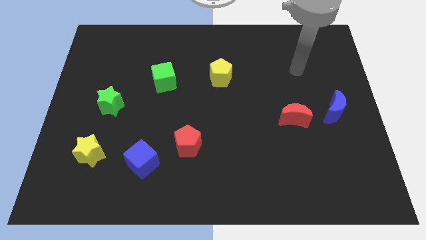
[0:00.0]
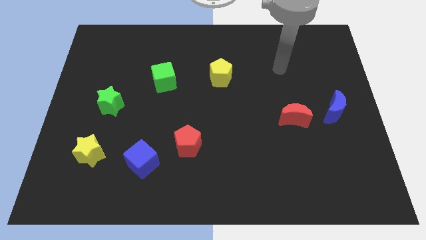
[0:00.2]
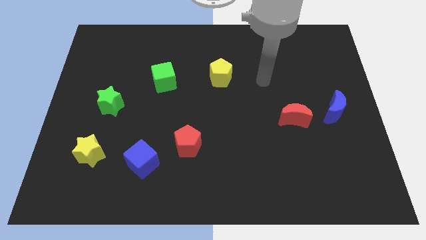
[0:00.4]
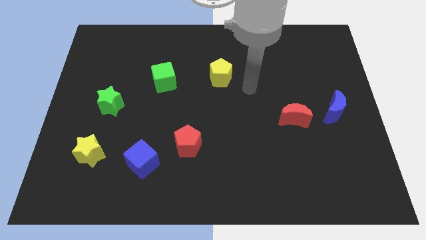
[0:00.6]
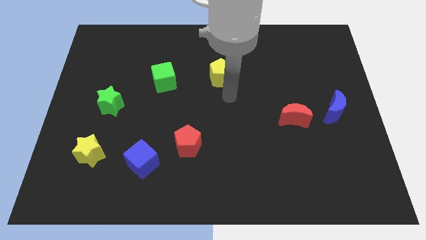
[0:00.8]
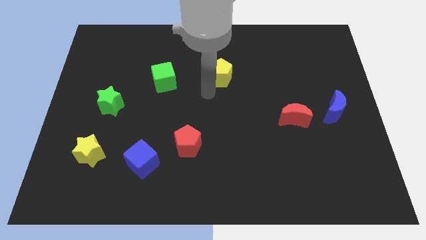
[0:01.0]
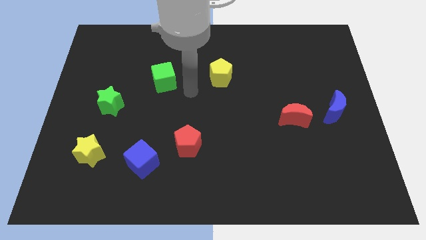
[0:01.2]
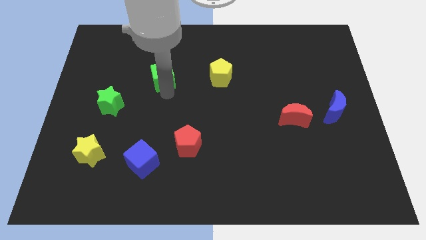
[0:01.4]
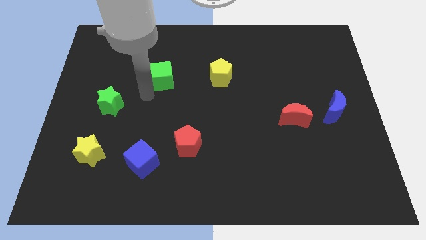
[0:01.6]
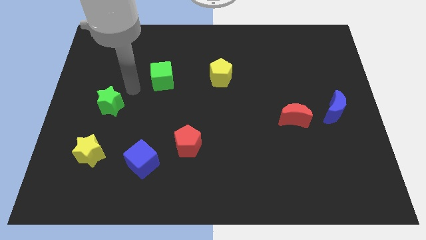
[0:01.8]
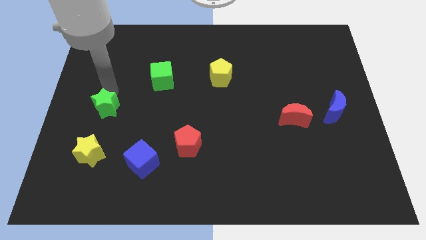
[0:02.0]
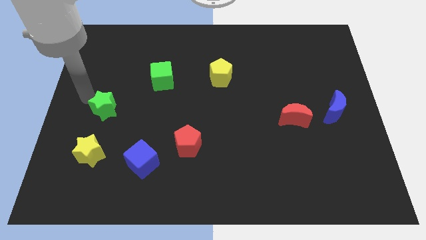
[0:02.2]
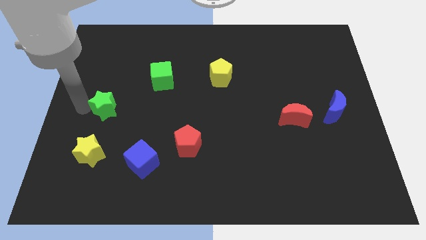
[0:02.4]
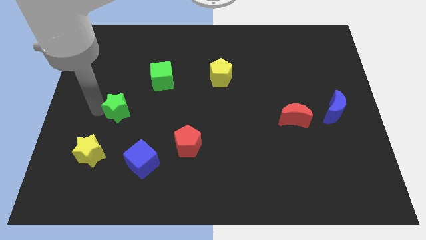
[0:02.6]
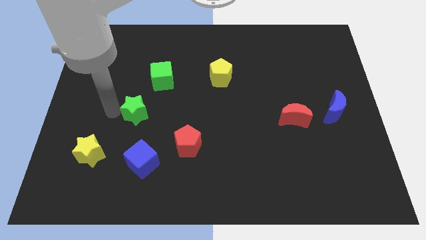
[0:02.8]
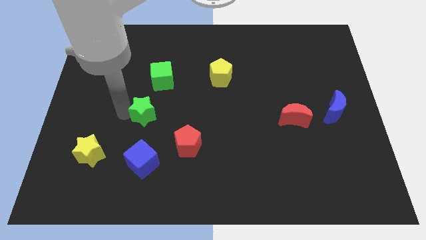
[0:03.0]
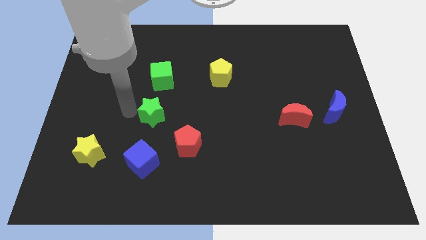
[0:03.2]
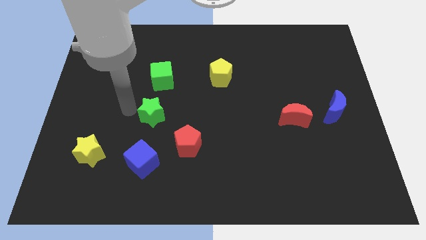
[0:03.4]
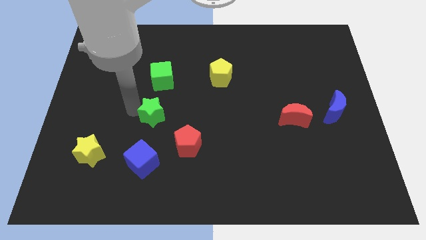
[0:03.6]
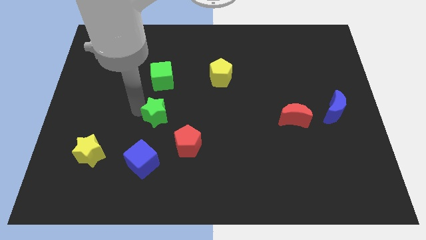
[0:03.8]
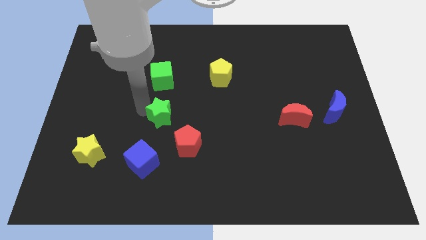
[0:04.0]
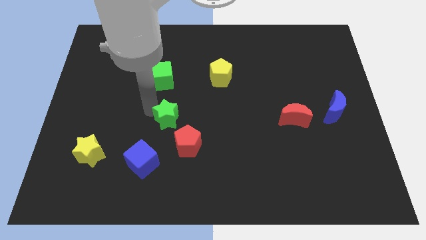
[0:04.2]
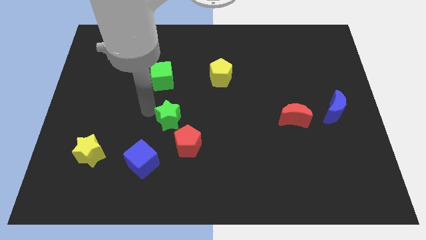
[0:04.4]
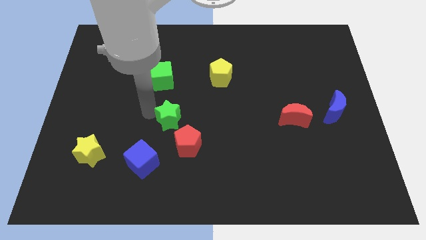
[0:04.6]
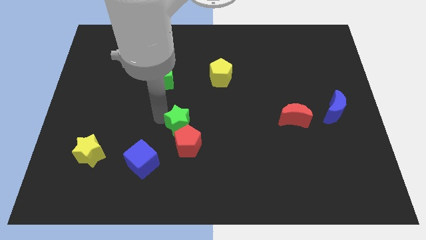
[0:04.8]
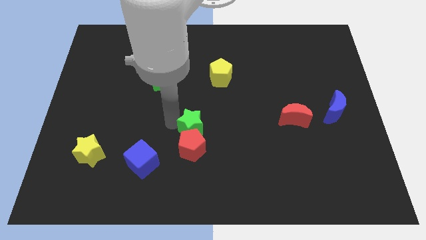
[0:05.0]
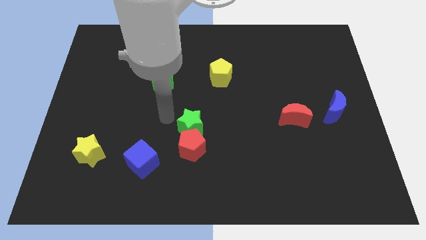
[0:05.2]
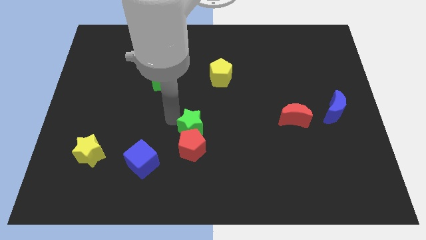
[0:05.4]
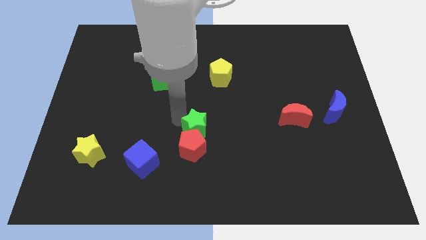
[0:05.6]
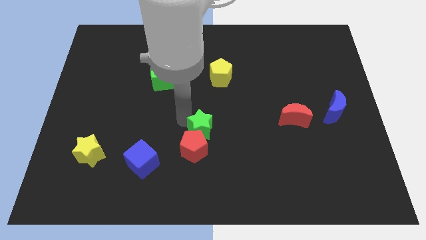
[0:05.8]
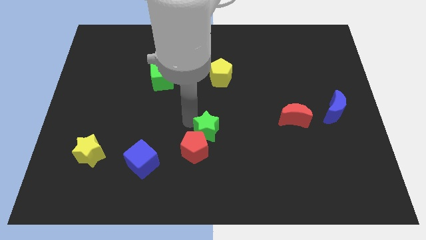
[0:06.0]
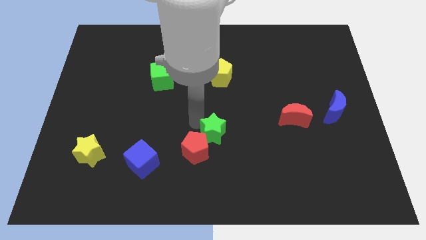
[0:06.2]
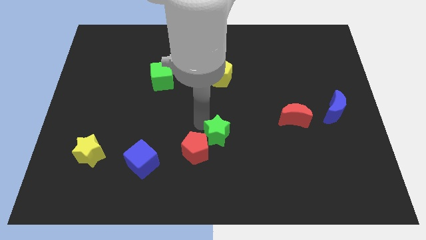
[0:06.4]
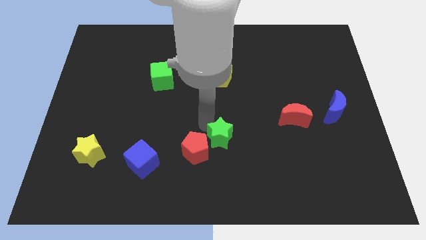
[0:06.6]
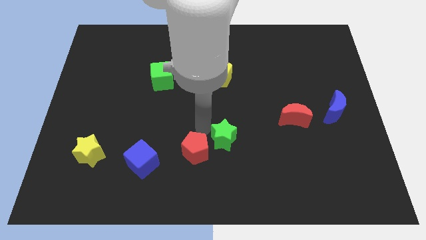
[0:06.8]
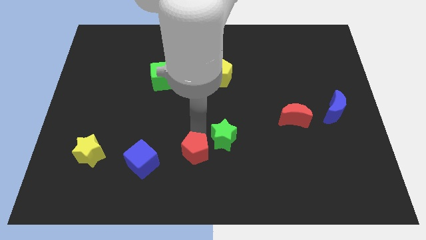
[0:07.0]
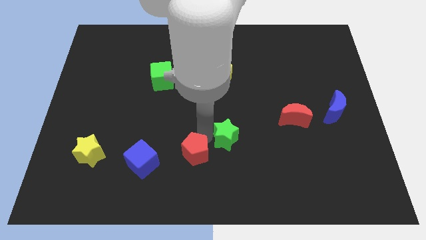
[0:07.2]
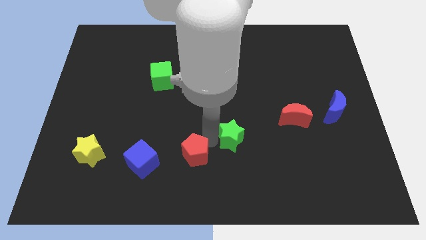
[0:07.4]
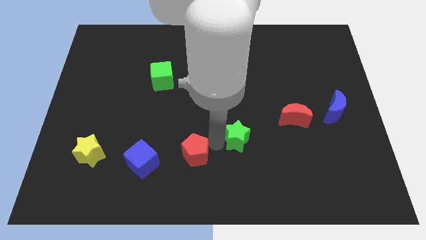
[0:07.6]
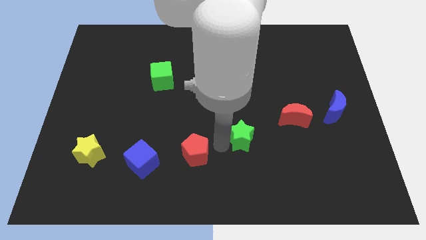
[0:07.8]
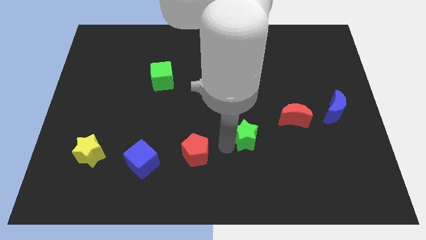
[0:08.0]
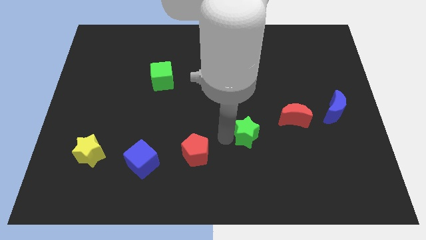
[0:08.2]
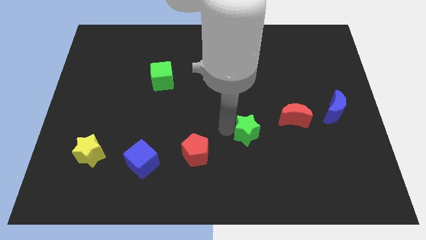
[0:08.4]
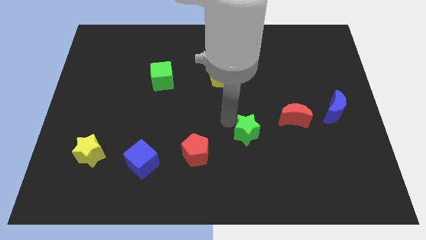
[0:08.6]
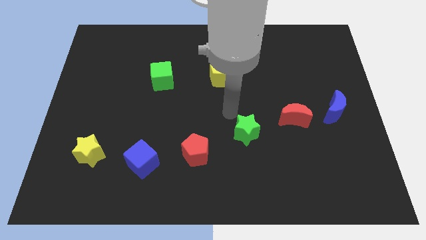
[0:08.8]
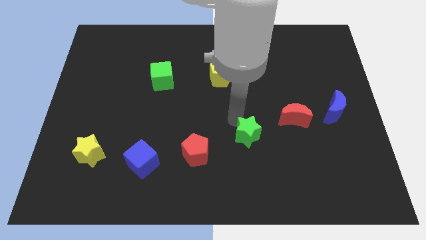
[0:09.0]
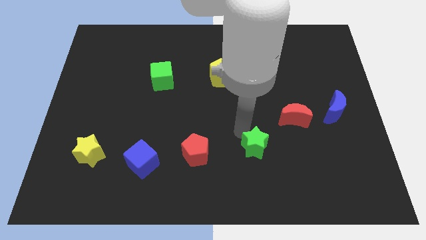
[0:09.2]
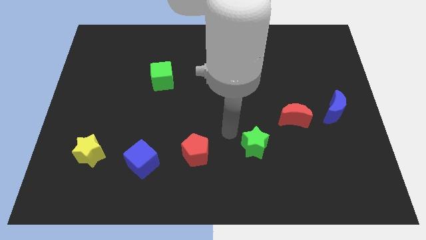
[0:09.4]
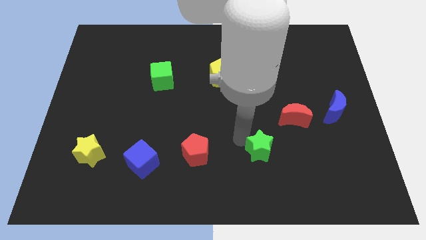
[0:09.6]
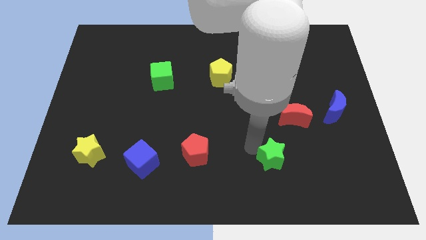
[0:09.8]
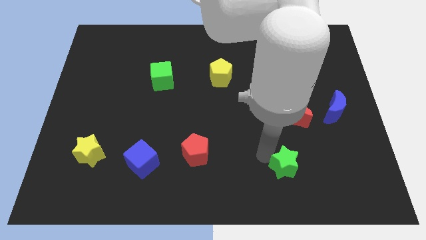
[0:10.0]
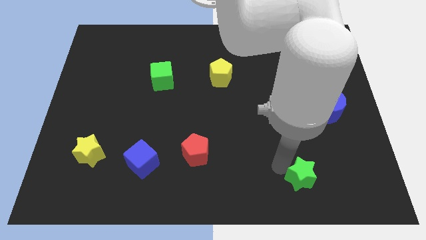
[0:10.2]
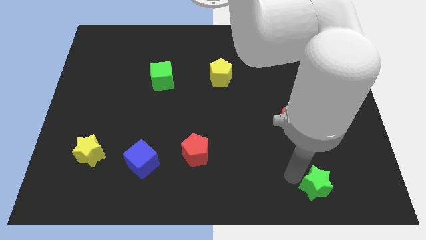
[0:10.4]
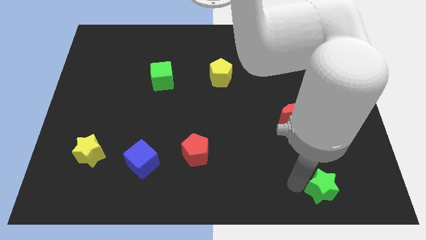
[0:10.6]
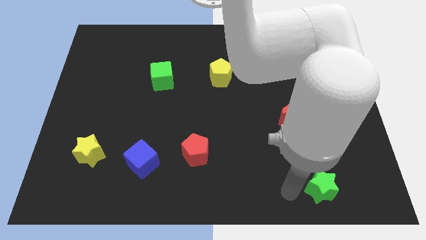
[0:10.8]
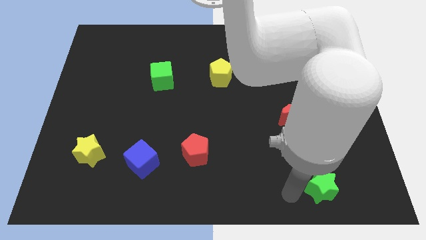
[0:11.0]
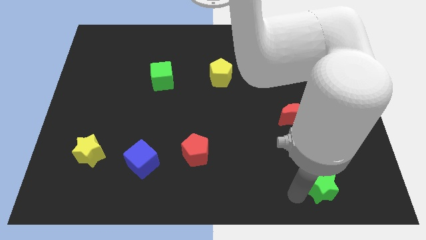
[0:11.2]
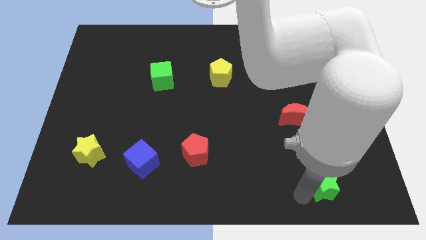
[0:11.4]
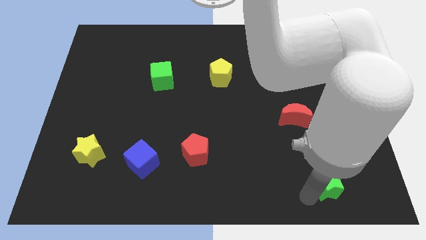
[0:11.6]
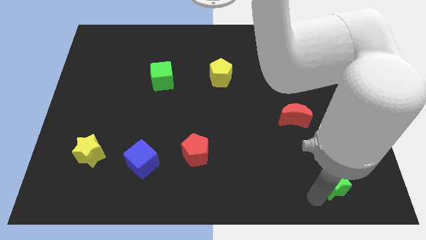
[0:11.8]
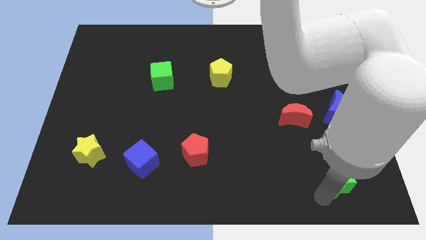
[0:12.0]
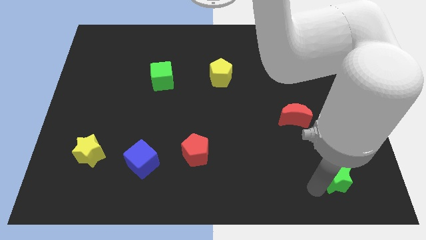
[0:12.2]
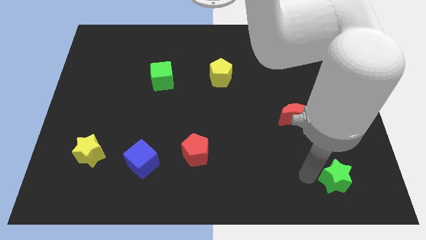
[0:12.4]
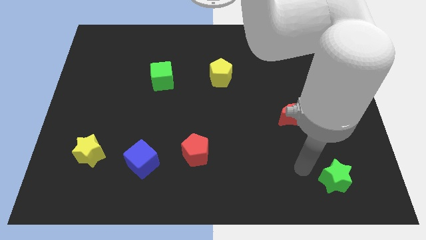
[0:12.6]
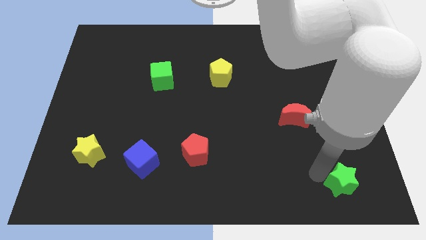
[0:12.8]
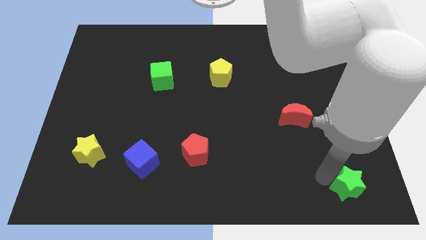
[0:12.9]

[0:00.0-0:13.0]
slide the green star to the bottom right
